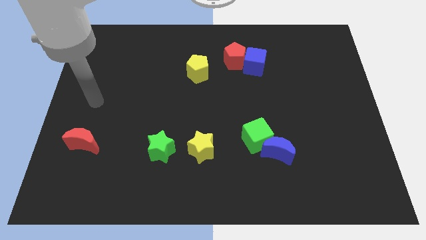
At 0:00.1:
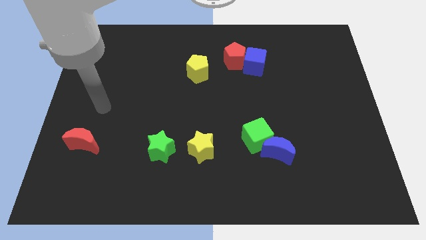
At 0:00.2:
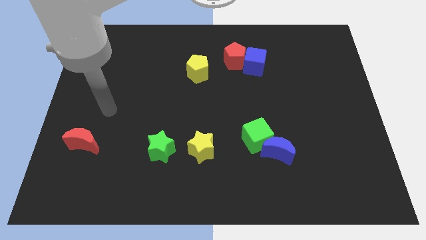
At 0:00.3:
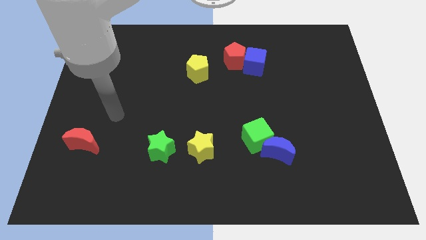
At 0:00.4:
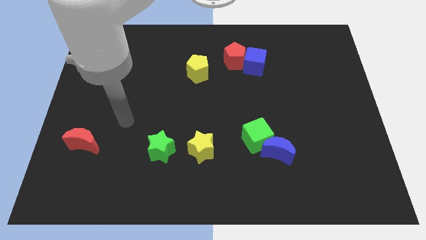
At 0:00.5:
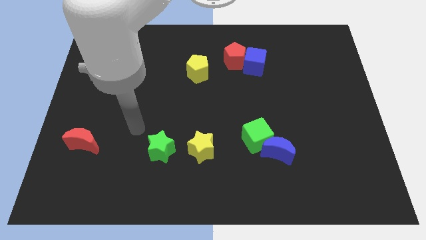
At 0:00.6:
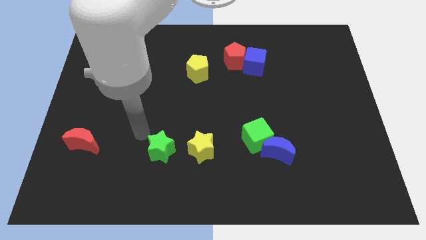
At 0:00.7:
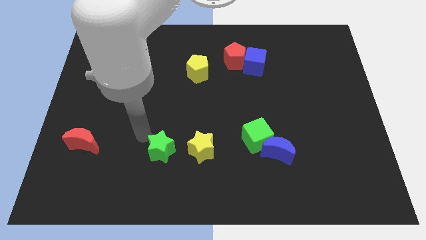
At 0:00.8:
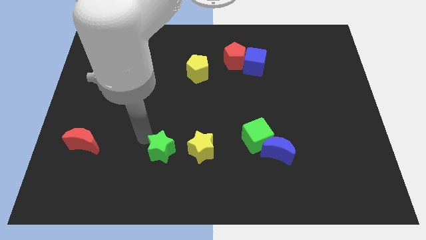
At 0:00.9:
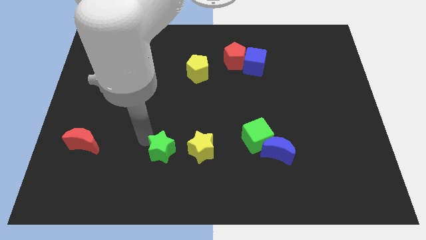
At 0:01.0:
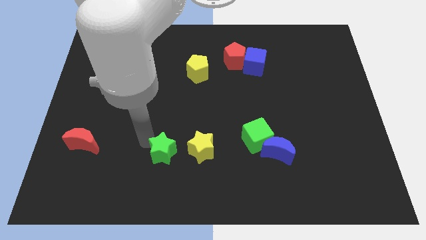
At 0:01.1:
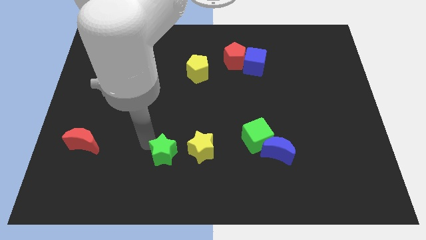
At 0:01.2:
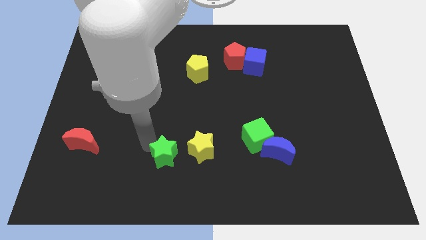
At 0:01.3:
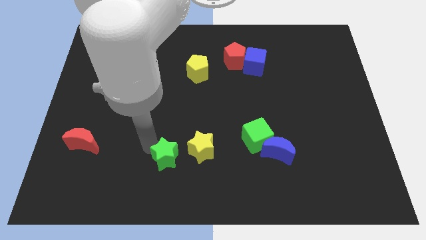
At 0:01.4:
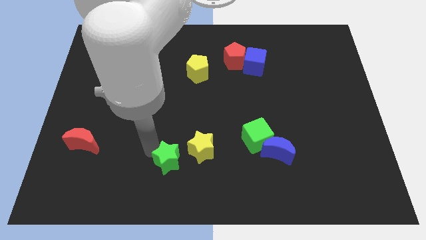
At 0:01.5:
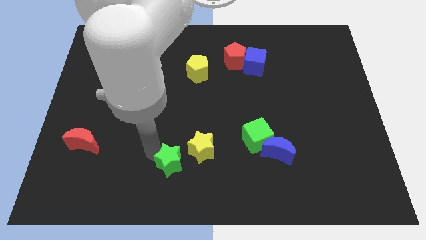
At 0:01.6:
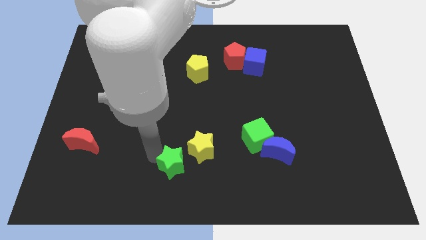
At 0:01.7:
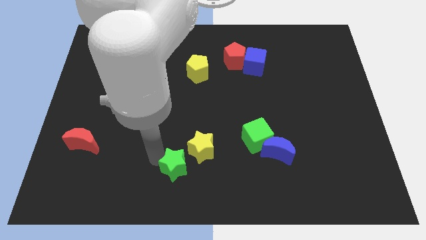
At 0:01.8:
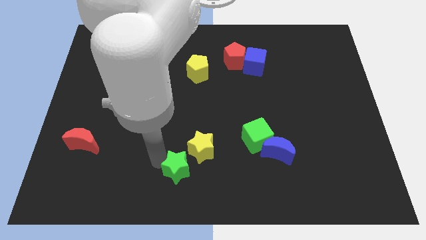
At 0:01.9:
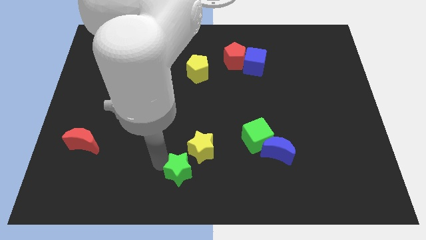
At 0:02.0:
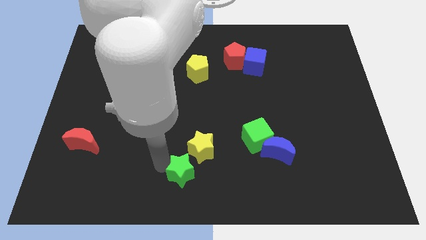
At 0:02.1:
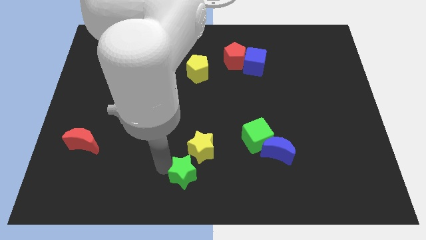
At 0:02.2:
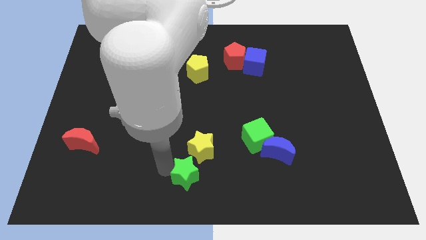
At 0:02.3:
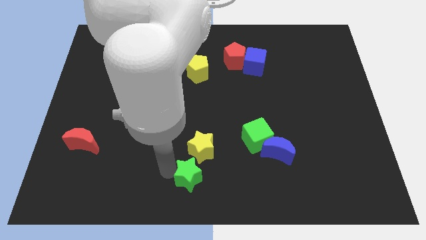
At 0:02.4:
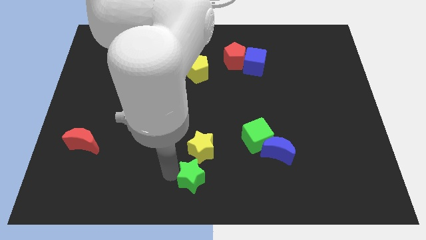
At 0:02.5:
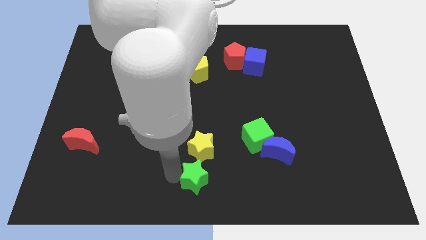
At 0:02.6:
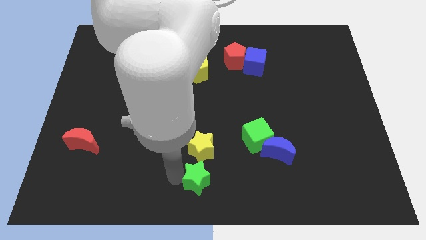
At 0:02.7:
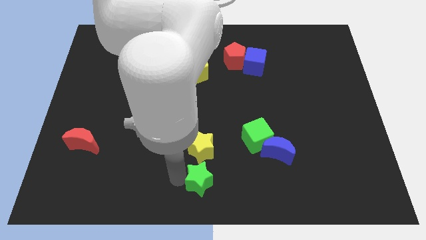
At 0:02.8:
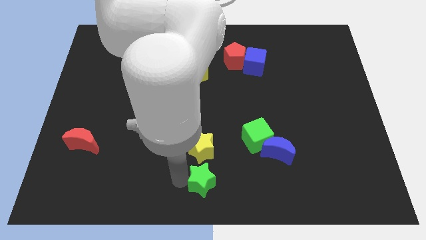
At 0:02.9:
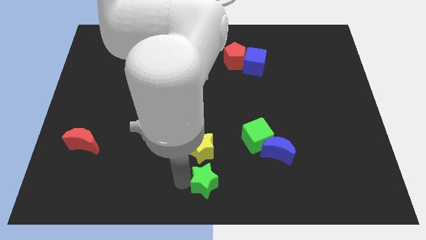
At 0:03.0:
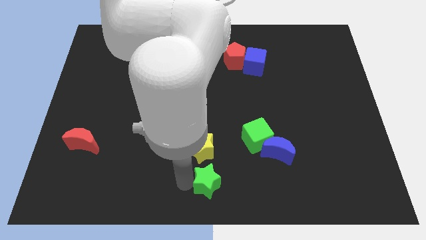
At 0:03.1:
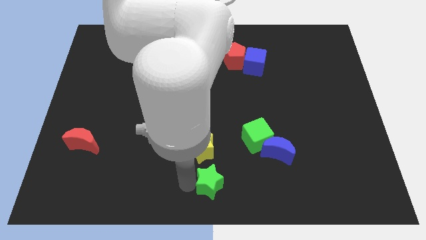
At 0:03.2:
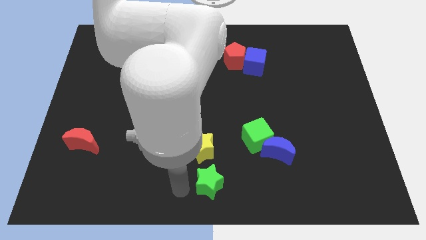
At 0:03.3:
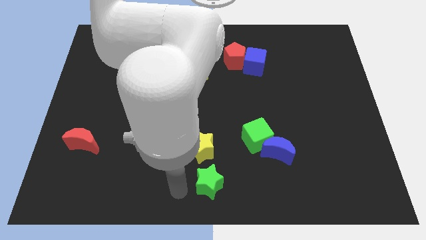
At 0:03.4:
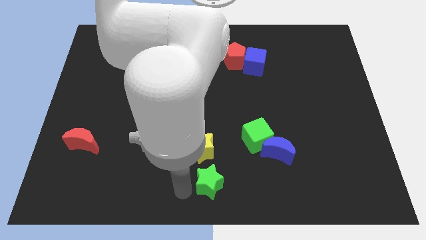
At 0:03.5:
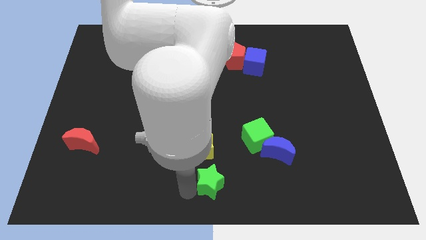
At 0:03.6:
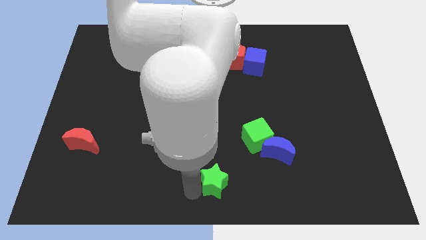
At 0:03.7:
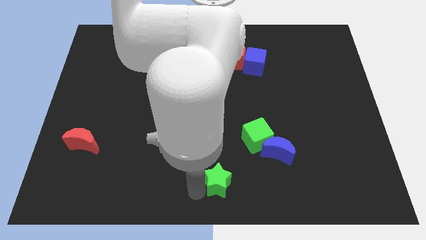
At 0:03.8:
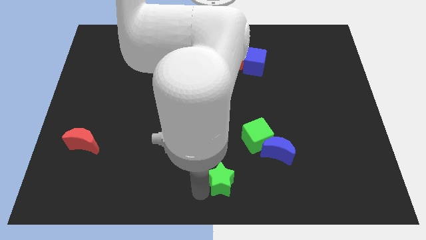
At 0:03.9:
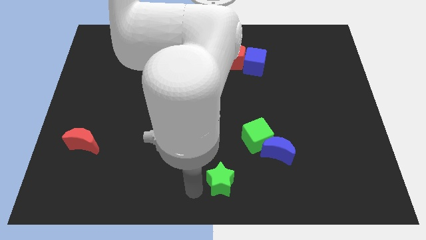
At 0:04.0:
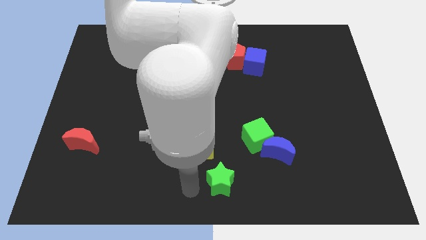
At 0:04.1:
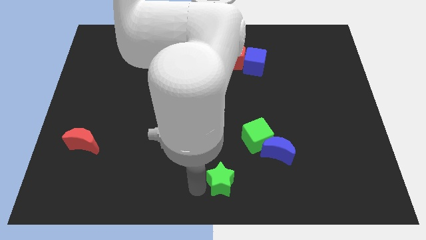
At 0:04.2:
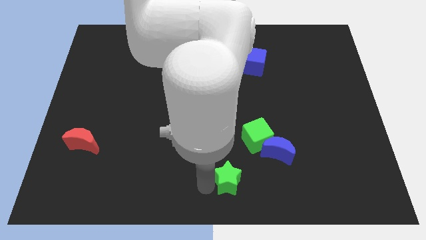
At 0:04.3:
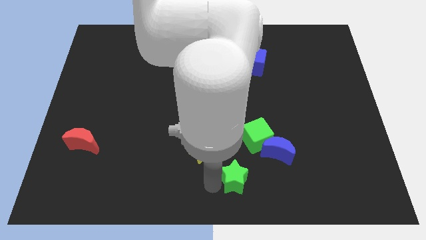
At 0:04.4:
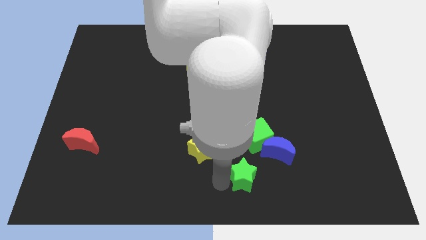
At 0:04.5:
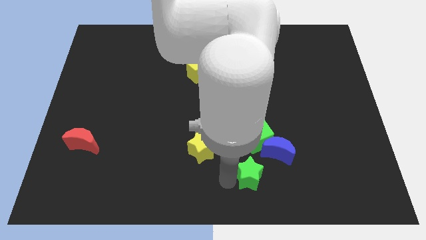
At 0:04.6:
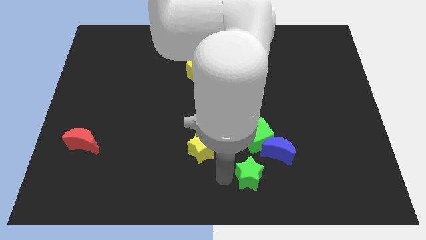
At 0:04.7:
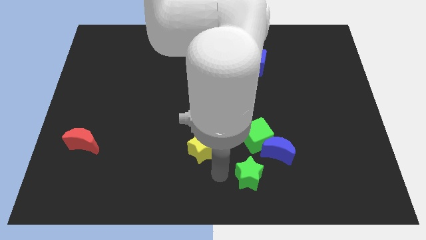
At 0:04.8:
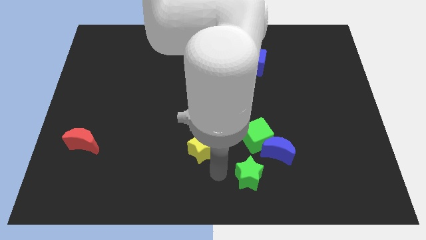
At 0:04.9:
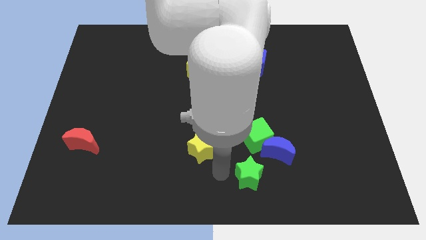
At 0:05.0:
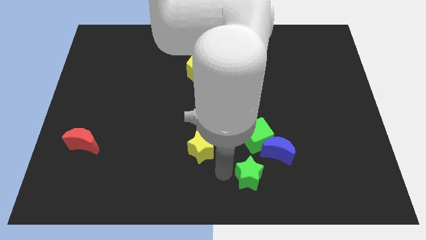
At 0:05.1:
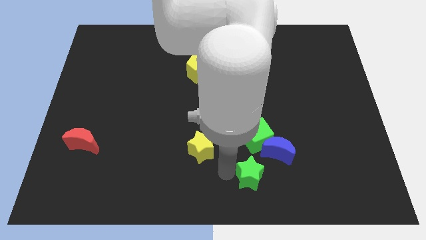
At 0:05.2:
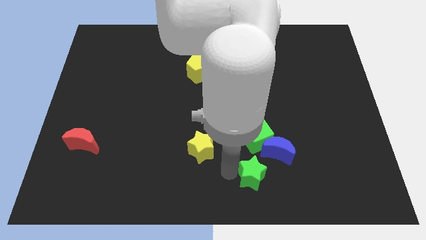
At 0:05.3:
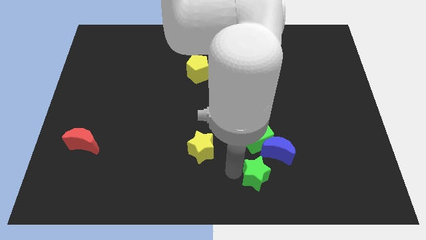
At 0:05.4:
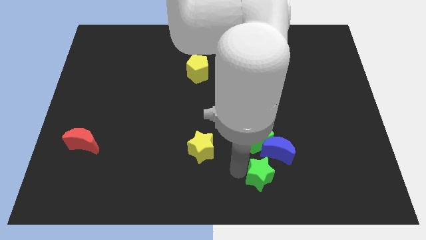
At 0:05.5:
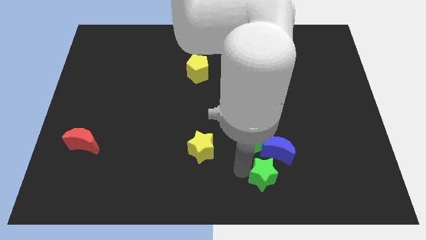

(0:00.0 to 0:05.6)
move the green star to the right

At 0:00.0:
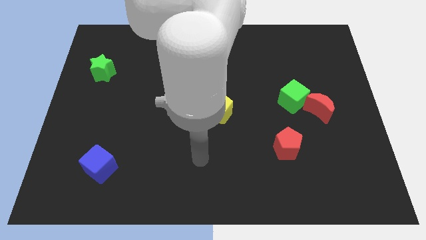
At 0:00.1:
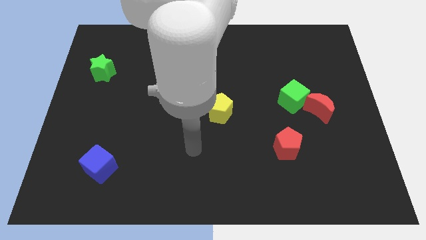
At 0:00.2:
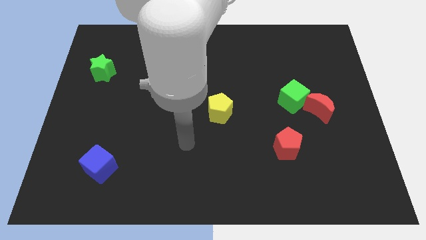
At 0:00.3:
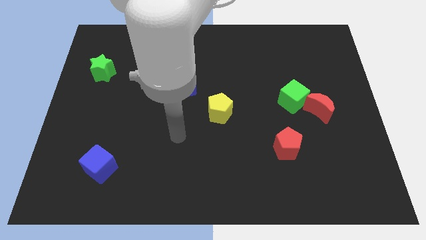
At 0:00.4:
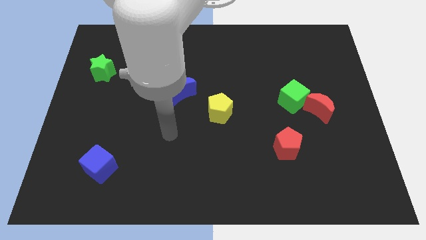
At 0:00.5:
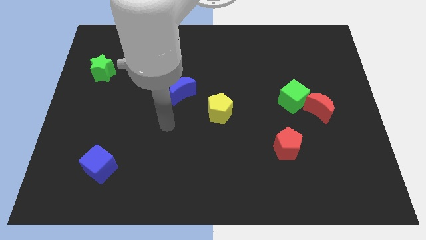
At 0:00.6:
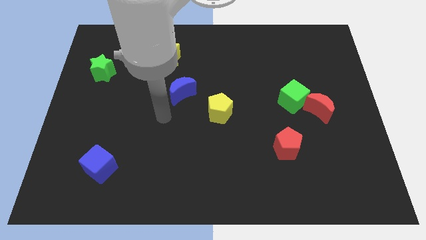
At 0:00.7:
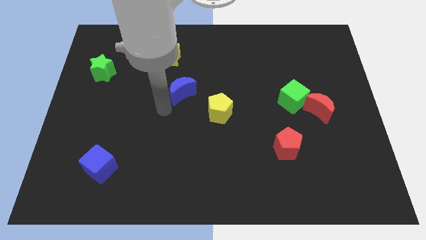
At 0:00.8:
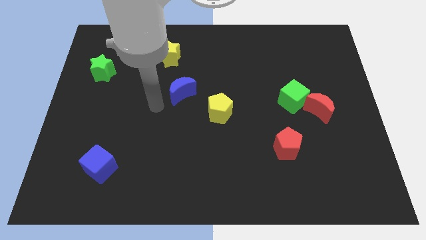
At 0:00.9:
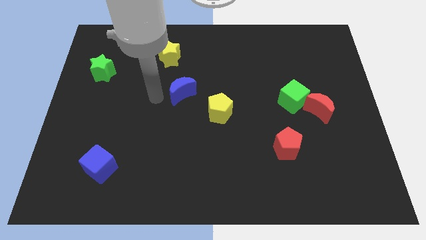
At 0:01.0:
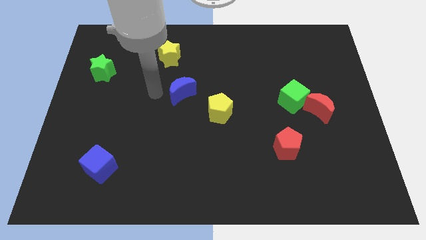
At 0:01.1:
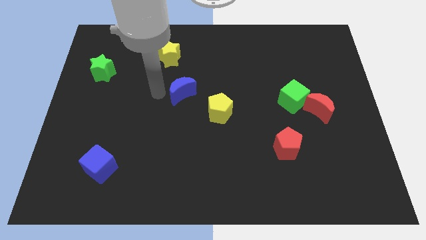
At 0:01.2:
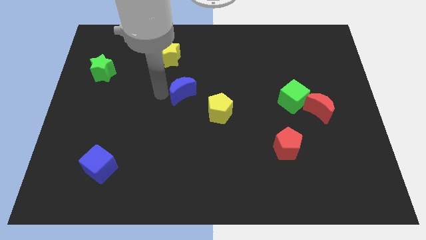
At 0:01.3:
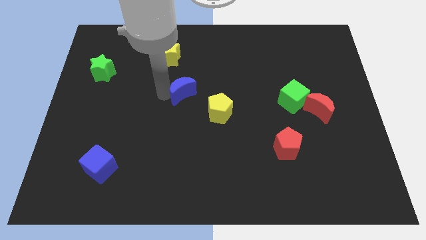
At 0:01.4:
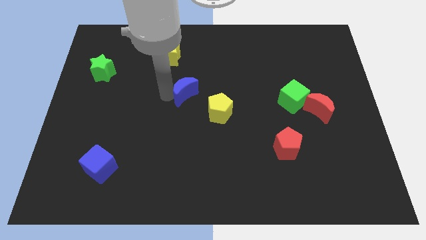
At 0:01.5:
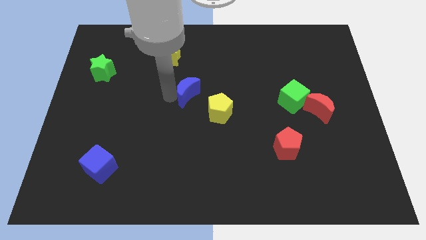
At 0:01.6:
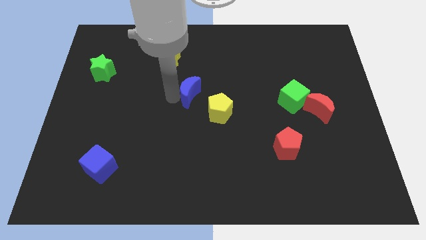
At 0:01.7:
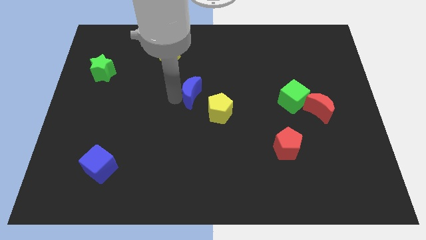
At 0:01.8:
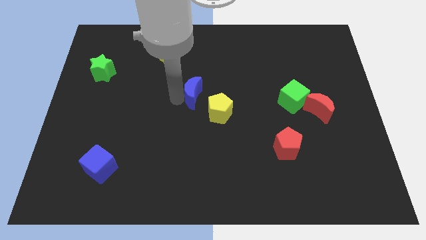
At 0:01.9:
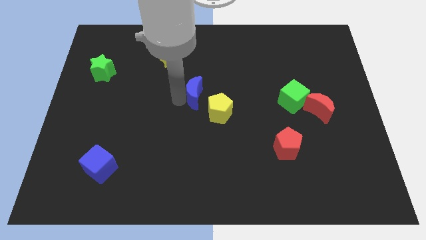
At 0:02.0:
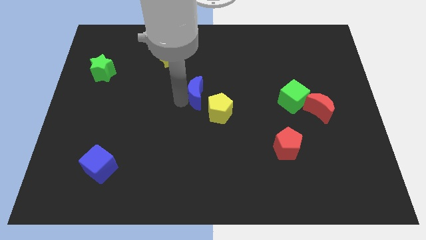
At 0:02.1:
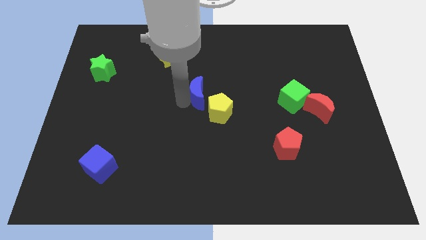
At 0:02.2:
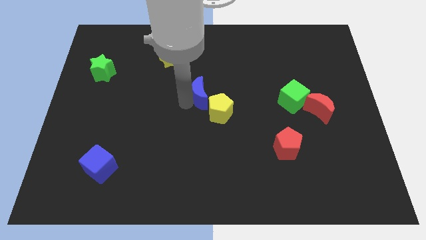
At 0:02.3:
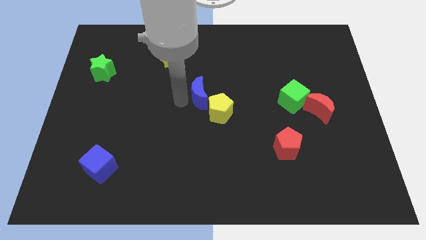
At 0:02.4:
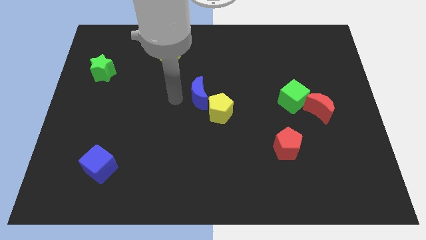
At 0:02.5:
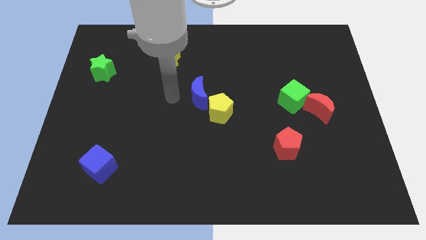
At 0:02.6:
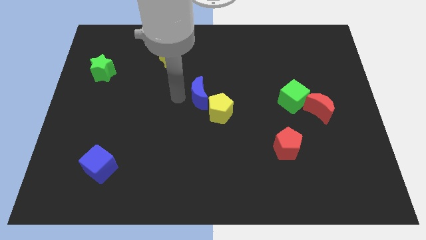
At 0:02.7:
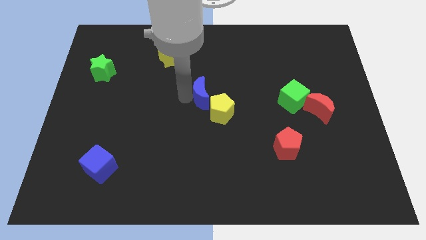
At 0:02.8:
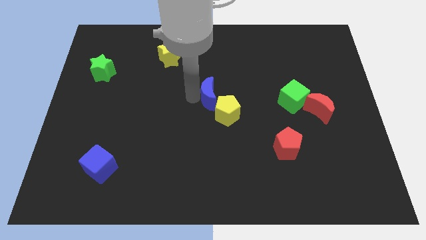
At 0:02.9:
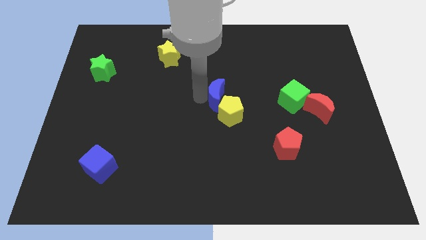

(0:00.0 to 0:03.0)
slightly slide the blue moon right
